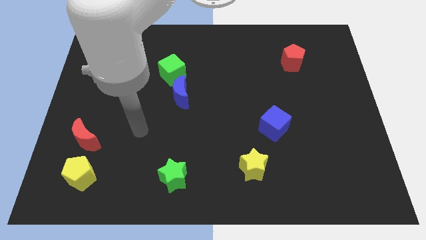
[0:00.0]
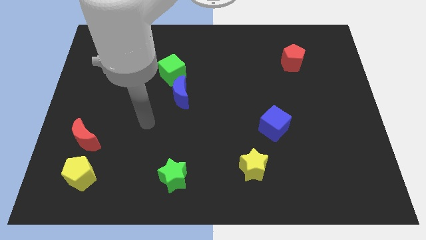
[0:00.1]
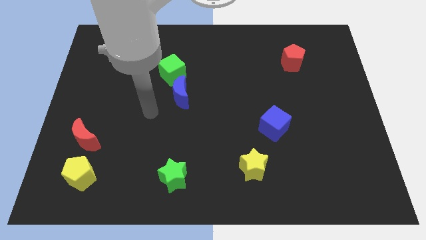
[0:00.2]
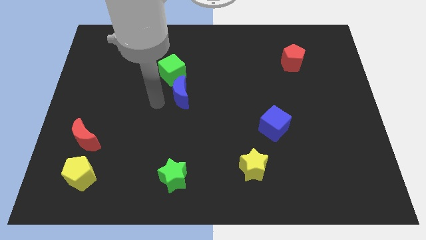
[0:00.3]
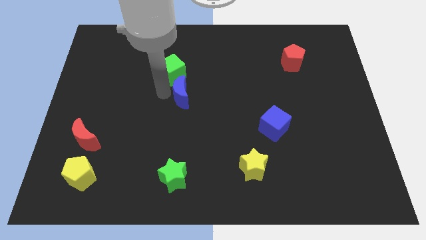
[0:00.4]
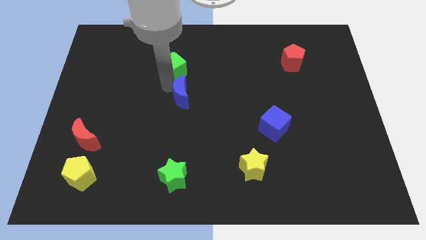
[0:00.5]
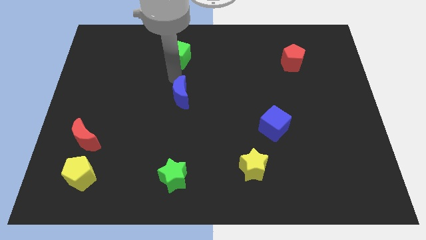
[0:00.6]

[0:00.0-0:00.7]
separate the blue moon from the green cube

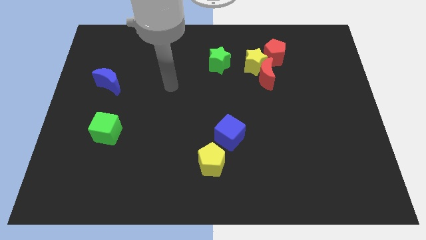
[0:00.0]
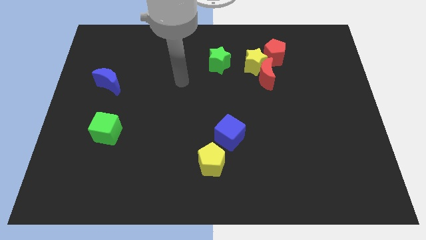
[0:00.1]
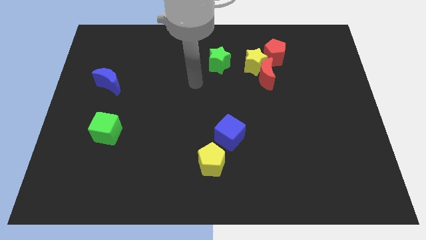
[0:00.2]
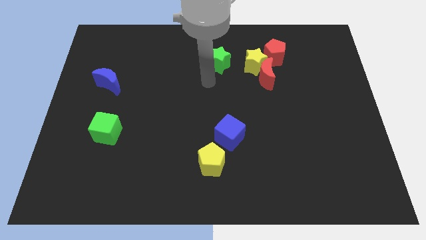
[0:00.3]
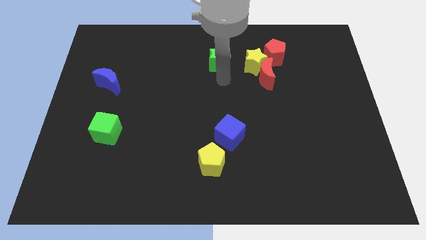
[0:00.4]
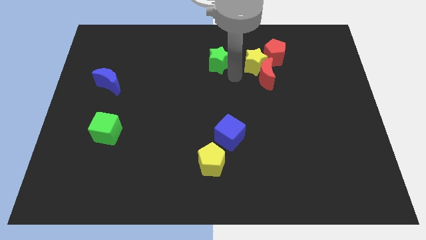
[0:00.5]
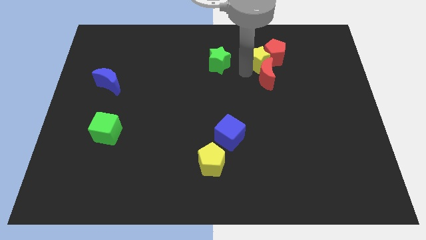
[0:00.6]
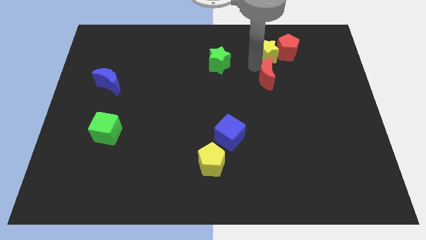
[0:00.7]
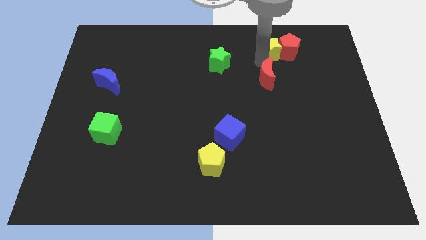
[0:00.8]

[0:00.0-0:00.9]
pull the red moon apart from the yellow star and red pentagon

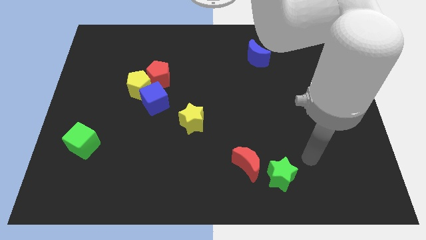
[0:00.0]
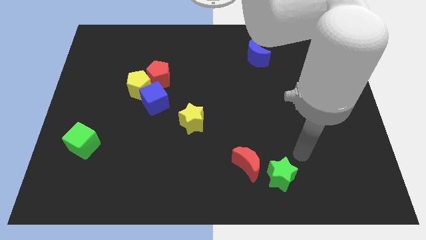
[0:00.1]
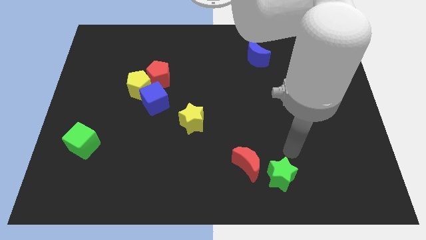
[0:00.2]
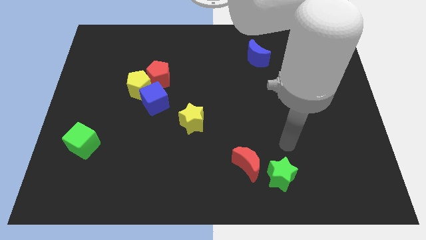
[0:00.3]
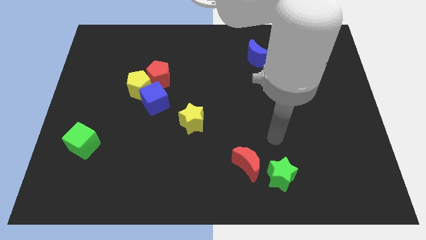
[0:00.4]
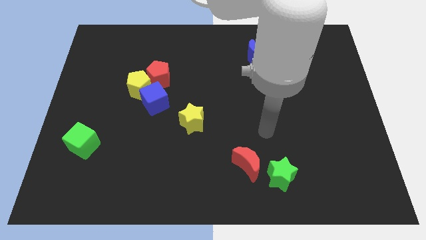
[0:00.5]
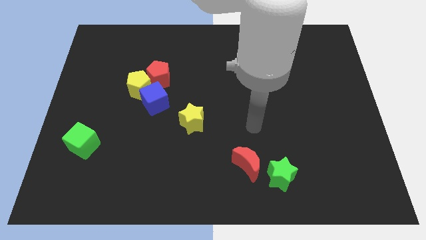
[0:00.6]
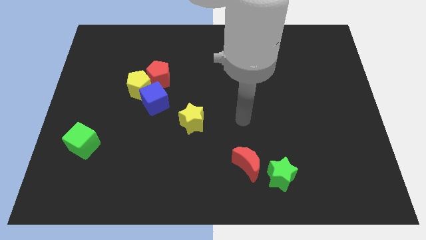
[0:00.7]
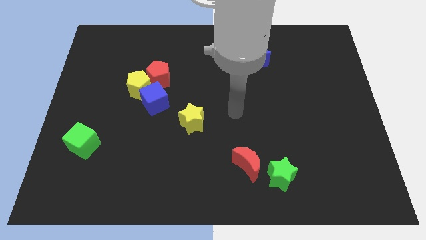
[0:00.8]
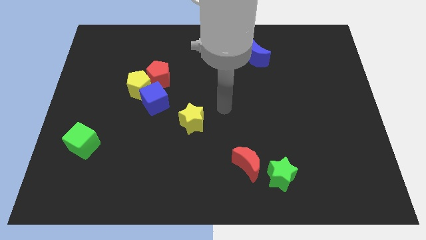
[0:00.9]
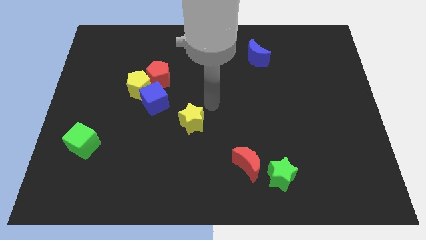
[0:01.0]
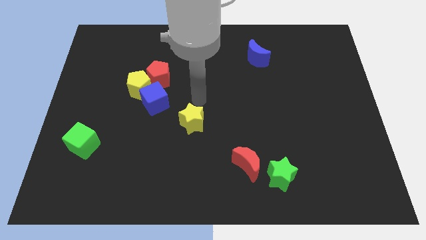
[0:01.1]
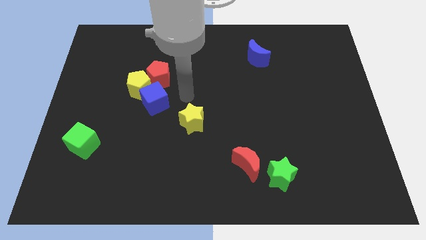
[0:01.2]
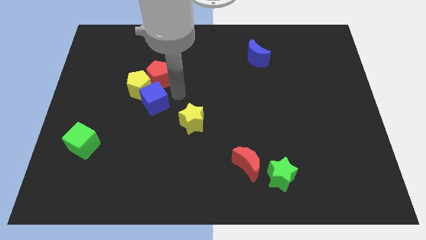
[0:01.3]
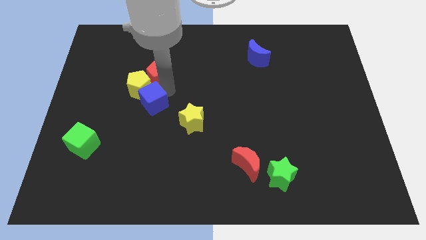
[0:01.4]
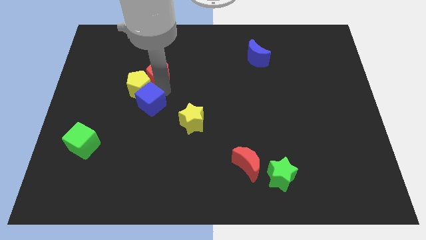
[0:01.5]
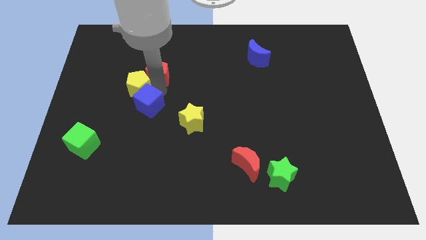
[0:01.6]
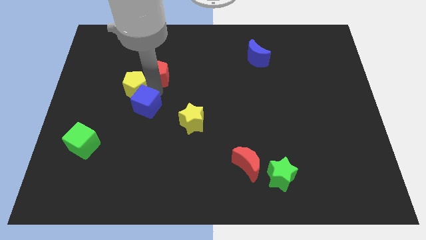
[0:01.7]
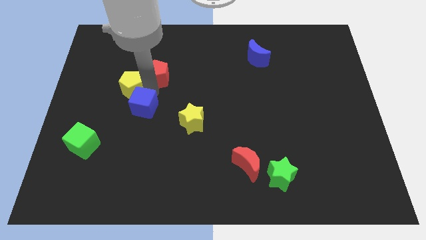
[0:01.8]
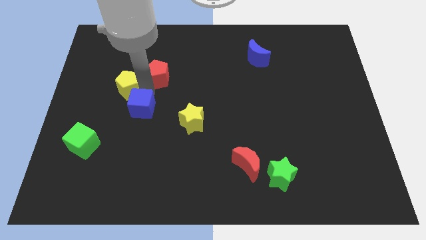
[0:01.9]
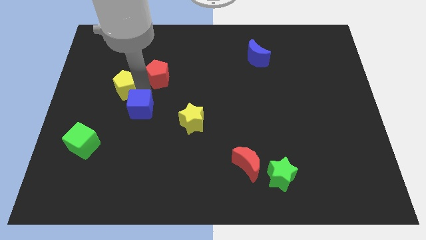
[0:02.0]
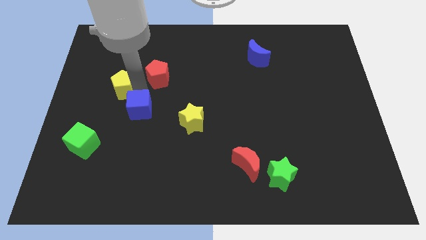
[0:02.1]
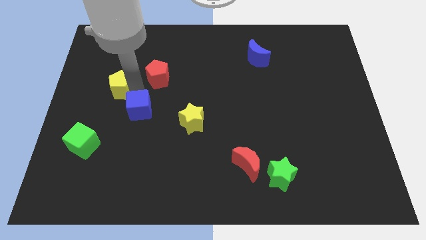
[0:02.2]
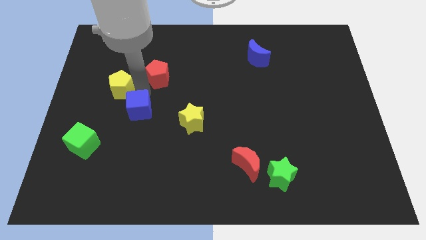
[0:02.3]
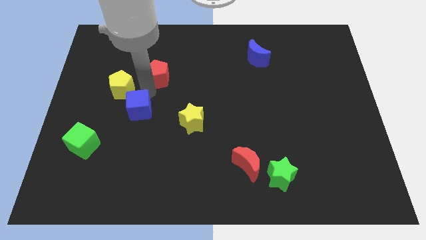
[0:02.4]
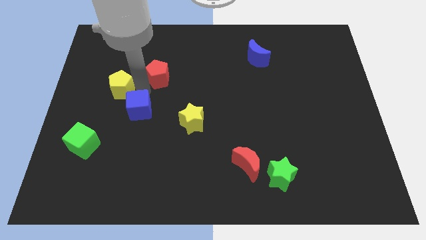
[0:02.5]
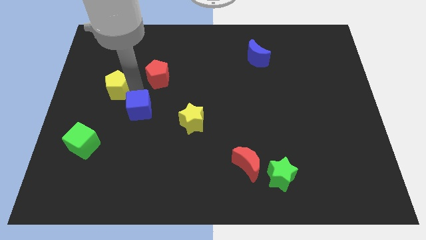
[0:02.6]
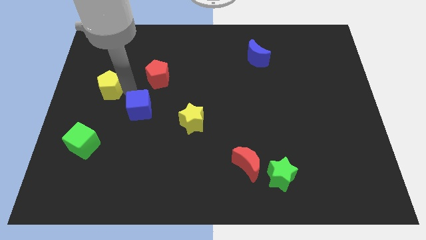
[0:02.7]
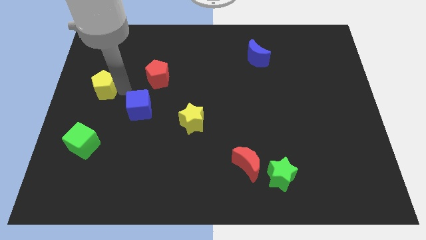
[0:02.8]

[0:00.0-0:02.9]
move the yellow pentagon away from the red pentagon and blue cube

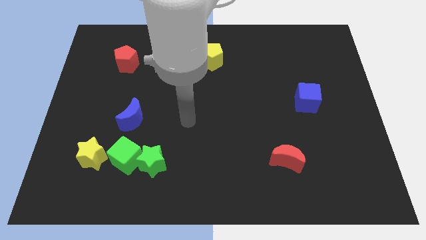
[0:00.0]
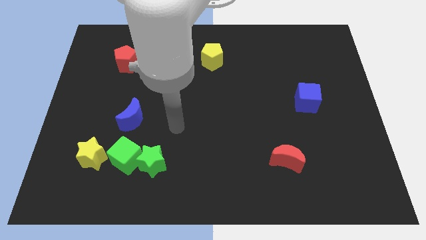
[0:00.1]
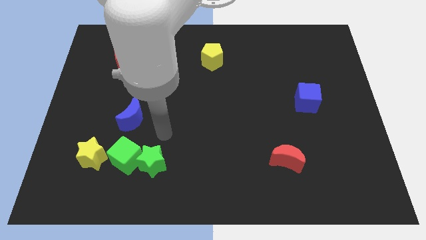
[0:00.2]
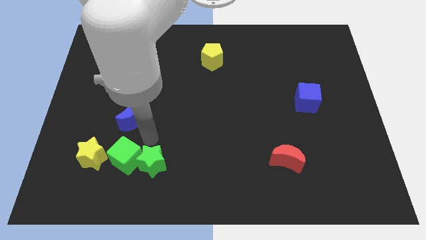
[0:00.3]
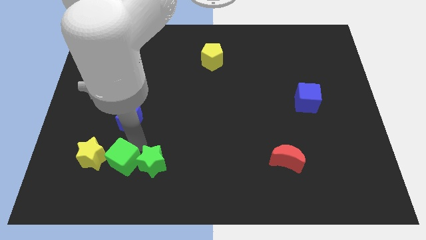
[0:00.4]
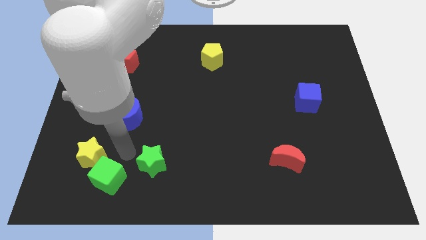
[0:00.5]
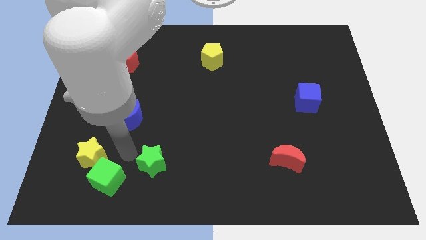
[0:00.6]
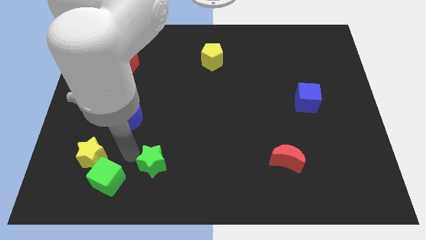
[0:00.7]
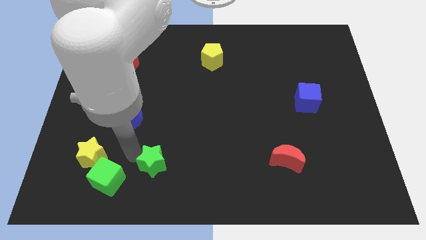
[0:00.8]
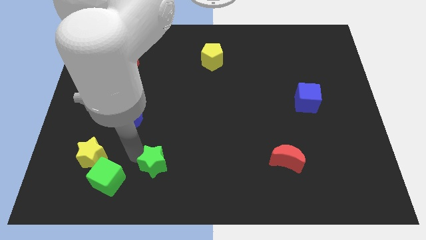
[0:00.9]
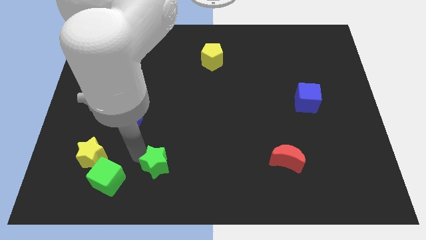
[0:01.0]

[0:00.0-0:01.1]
pull the green star apart from the green cube

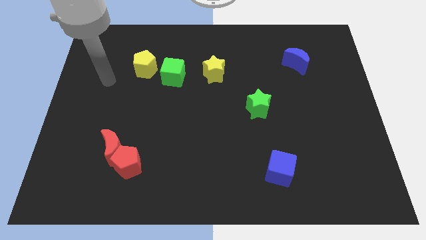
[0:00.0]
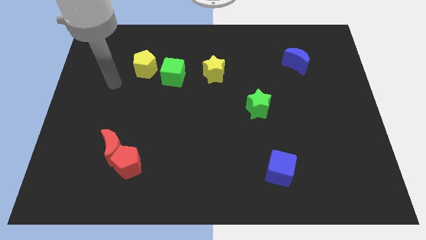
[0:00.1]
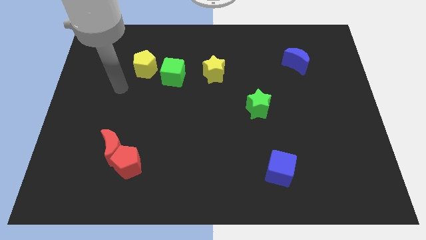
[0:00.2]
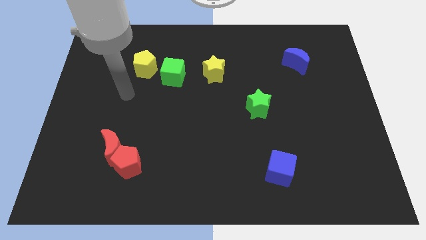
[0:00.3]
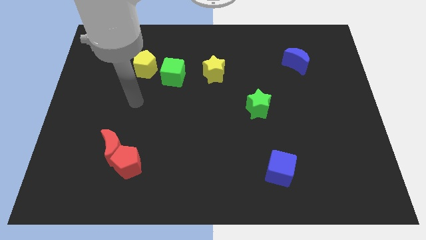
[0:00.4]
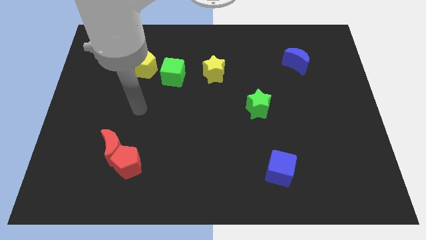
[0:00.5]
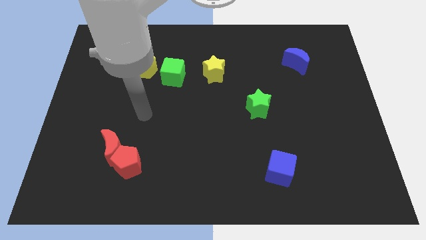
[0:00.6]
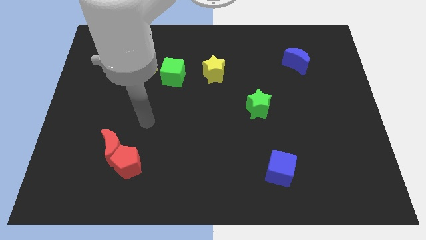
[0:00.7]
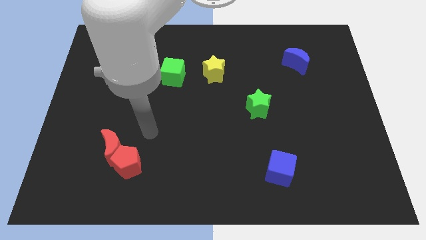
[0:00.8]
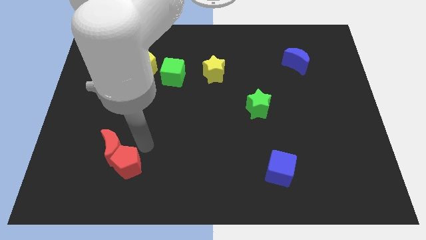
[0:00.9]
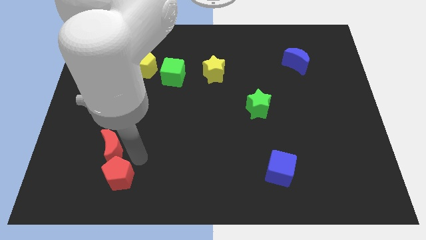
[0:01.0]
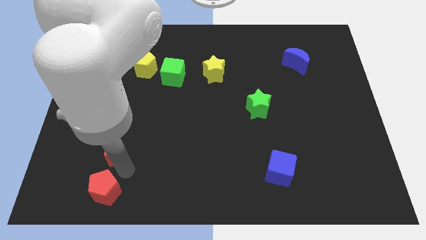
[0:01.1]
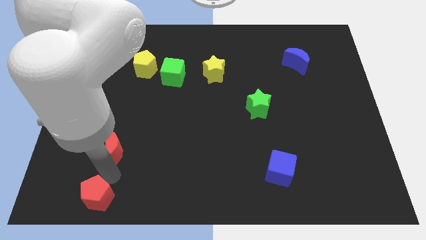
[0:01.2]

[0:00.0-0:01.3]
separate the red moon from the red pentagon

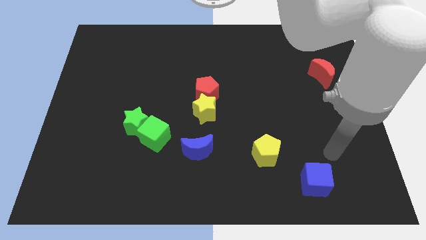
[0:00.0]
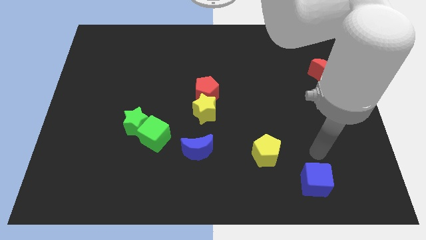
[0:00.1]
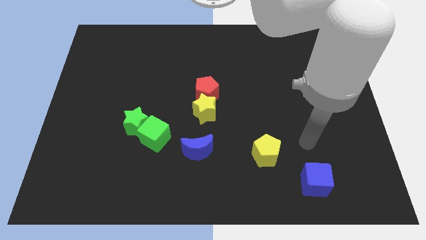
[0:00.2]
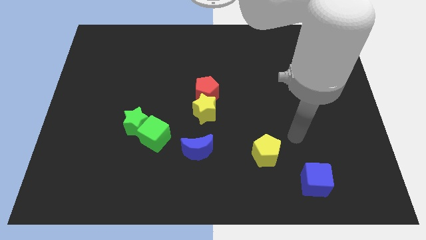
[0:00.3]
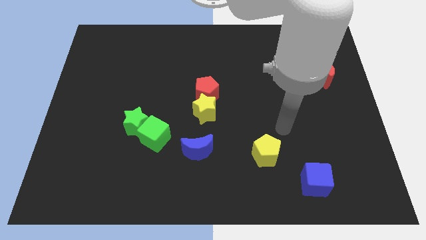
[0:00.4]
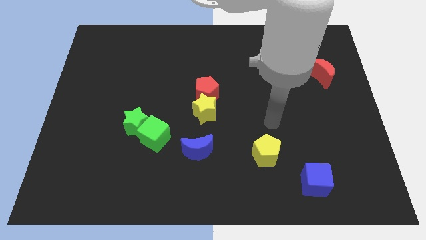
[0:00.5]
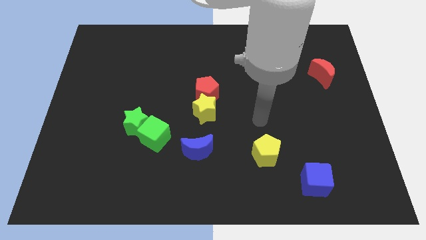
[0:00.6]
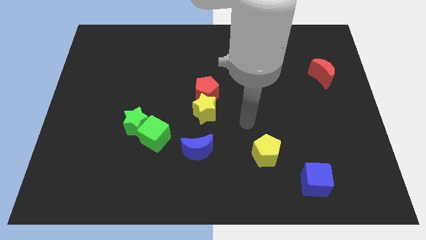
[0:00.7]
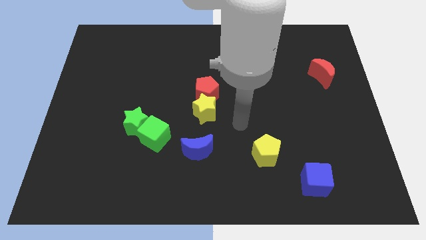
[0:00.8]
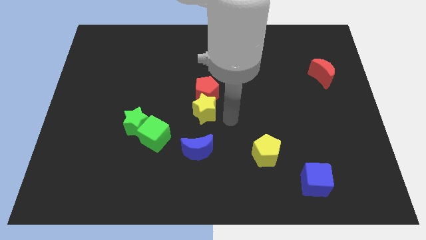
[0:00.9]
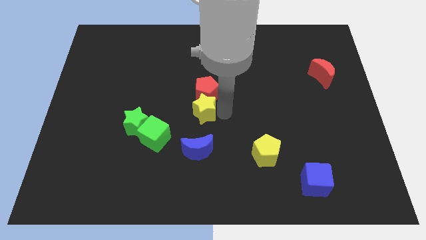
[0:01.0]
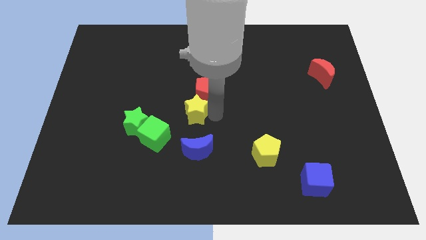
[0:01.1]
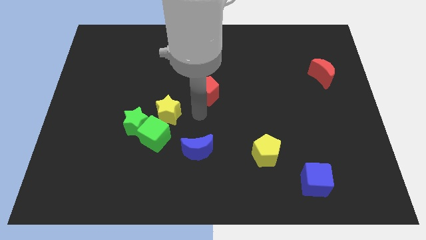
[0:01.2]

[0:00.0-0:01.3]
pull the red pentagon apart from the yellow star

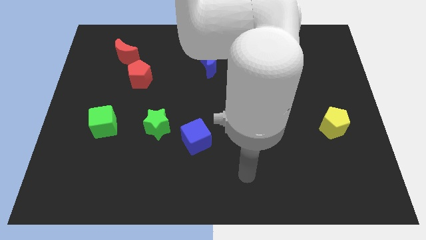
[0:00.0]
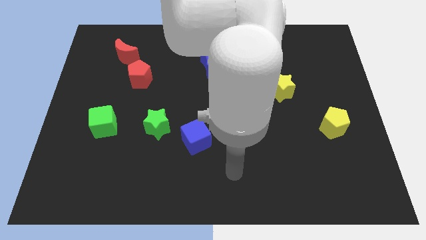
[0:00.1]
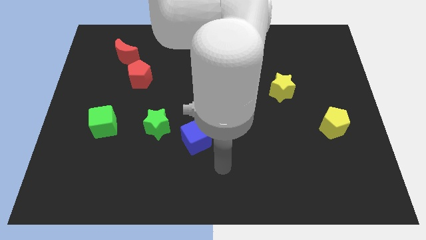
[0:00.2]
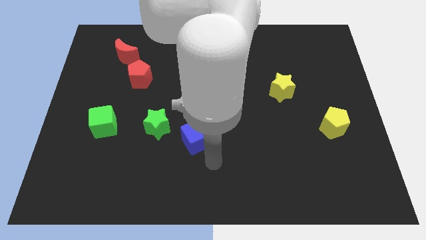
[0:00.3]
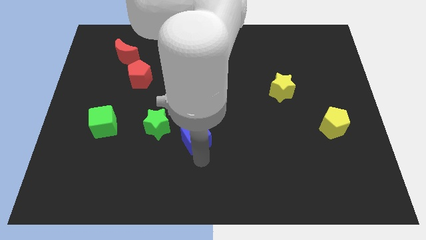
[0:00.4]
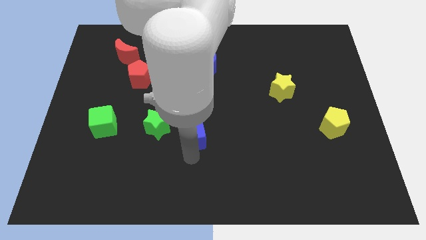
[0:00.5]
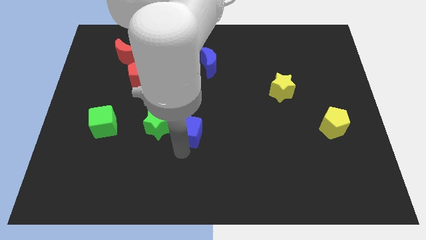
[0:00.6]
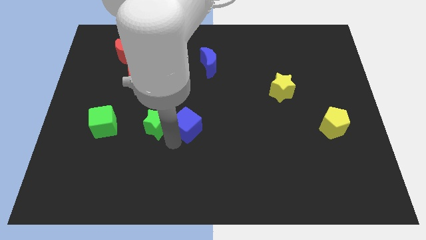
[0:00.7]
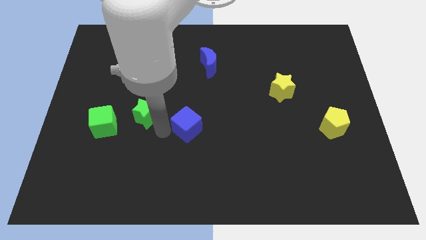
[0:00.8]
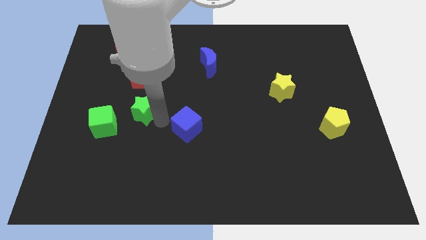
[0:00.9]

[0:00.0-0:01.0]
separate the blue cube from the green star

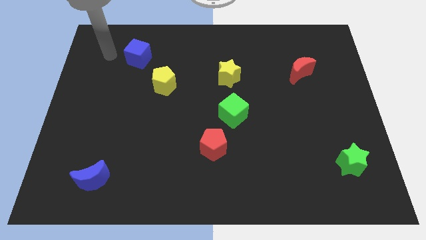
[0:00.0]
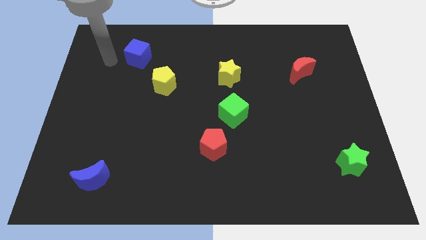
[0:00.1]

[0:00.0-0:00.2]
separate the red pentagon from the green cube
